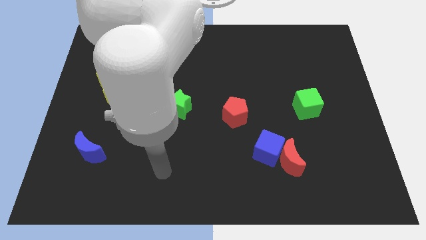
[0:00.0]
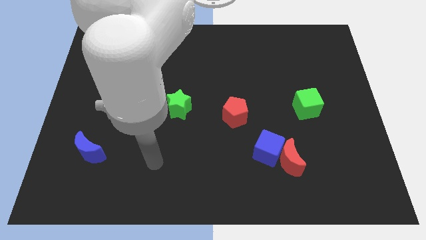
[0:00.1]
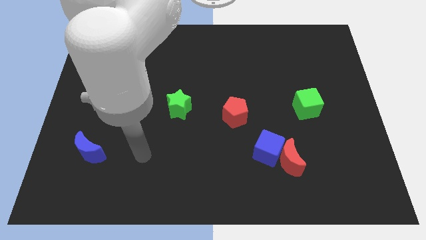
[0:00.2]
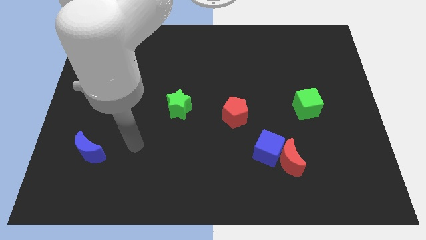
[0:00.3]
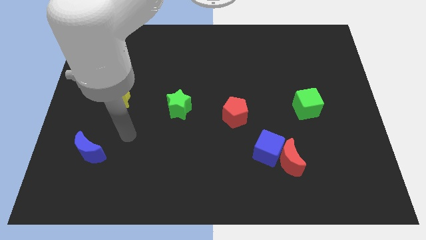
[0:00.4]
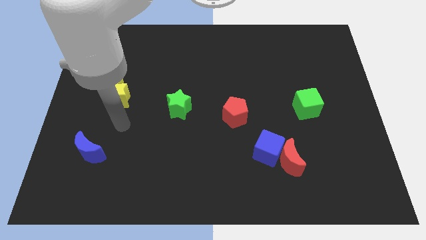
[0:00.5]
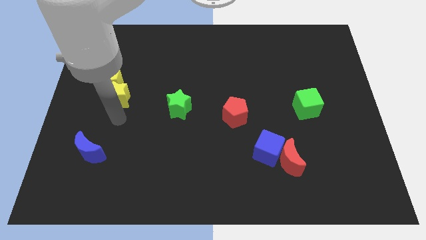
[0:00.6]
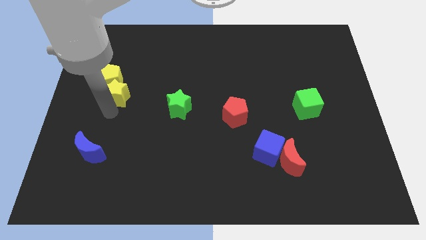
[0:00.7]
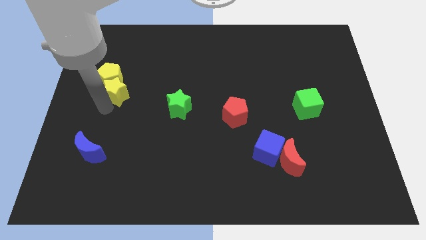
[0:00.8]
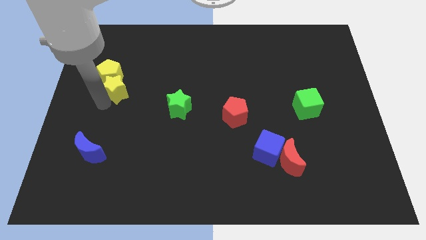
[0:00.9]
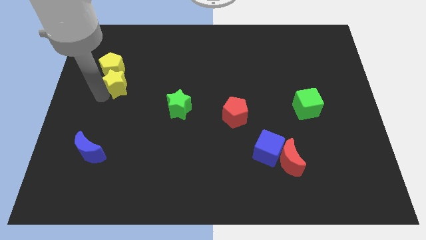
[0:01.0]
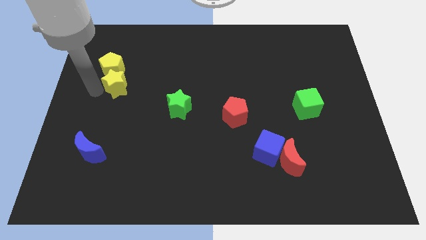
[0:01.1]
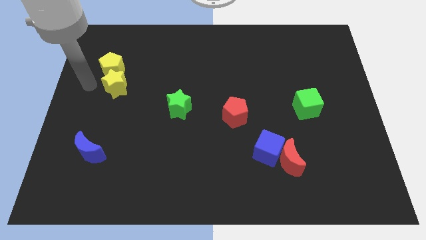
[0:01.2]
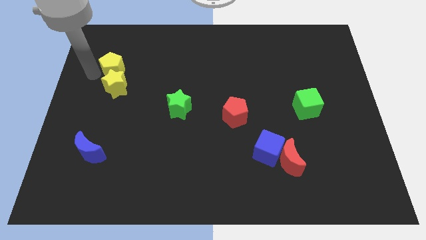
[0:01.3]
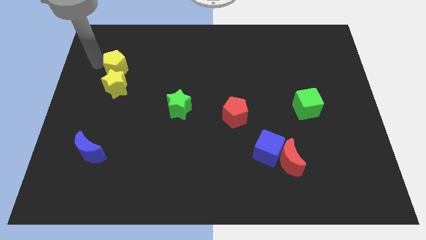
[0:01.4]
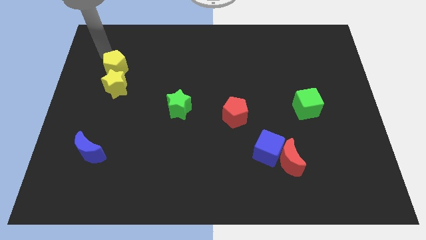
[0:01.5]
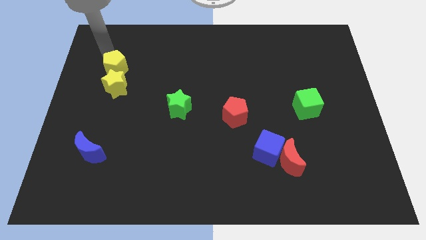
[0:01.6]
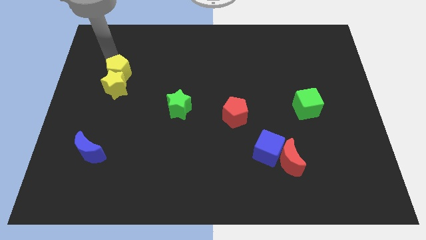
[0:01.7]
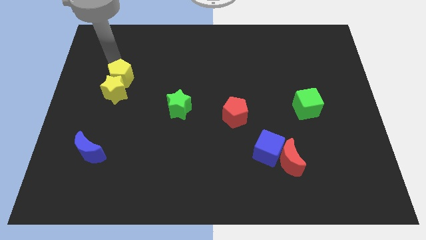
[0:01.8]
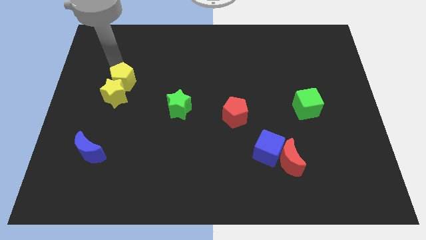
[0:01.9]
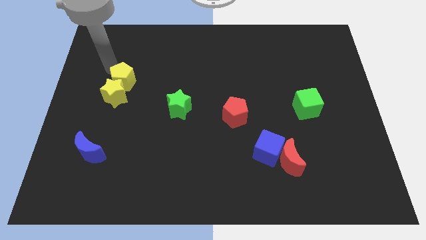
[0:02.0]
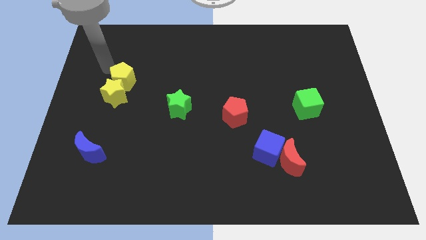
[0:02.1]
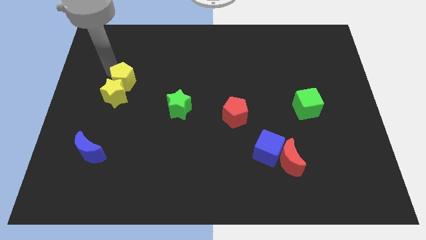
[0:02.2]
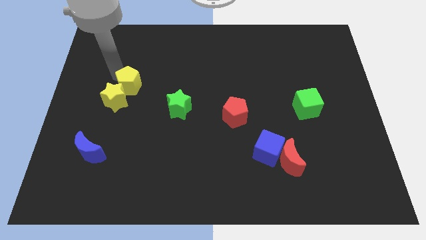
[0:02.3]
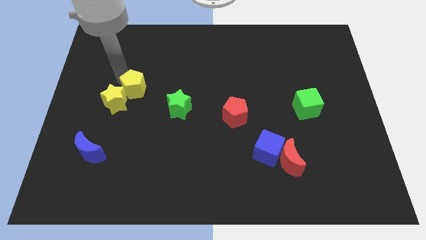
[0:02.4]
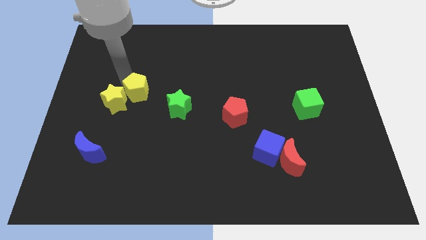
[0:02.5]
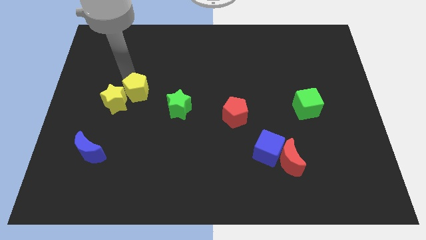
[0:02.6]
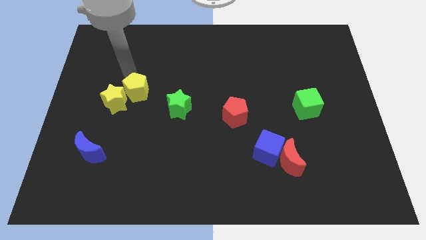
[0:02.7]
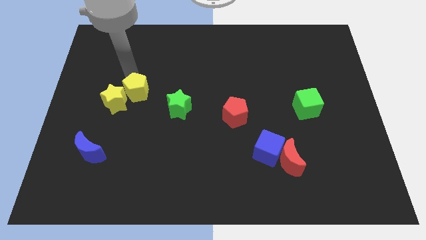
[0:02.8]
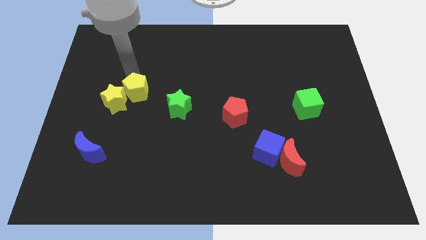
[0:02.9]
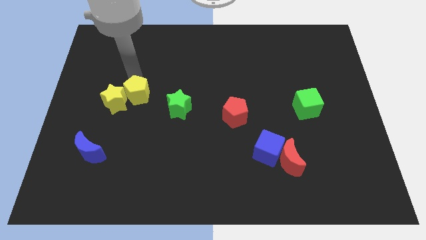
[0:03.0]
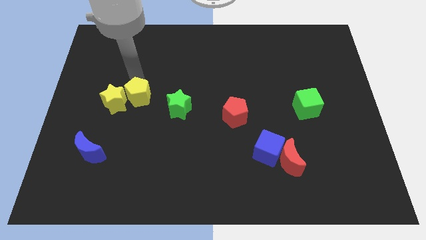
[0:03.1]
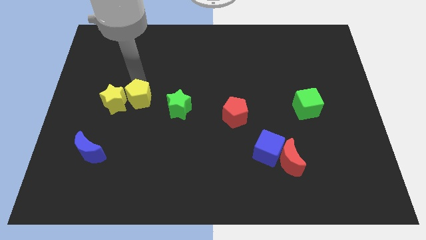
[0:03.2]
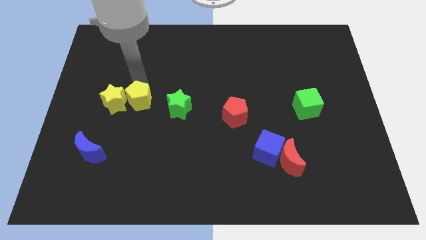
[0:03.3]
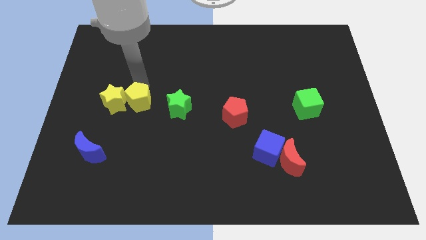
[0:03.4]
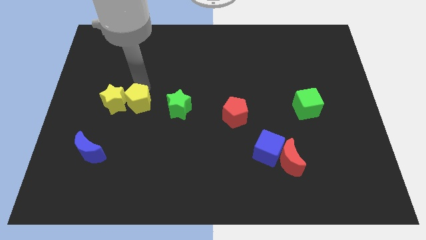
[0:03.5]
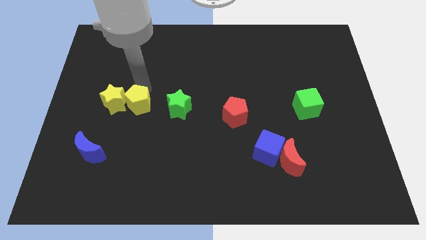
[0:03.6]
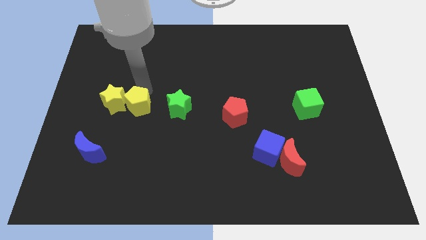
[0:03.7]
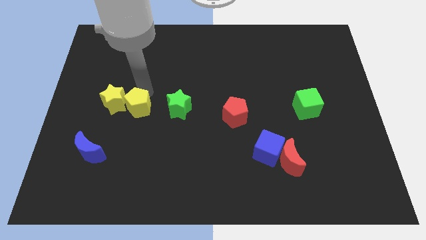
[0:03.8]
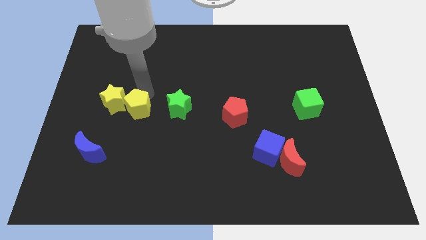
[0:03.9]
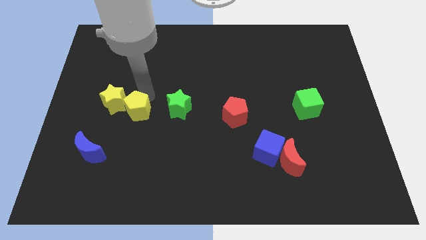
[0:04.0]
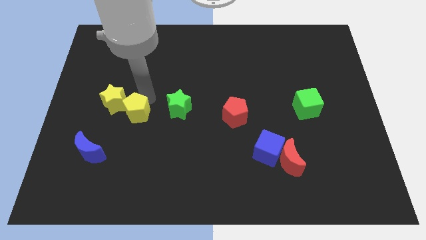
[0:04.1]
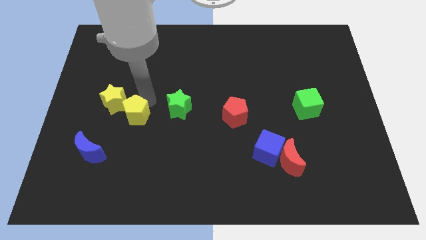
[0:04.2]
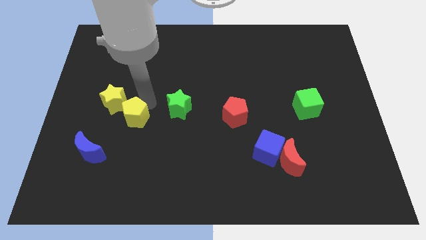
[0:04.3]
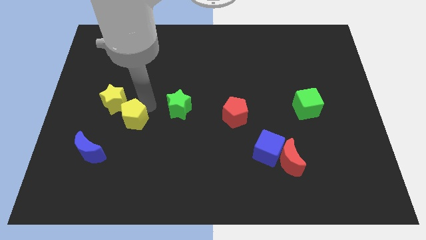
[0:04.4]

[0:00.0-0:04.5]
push the yellow pentagon to the bottom left of the green star

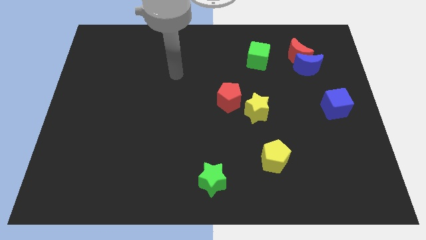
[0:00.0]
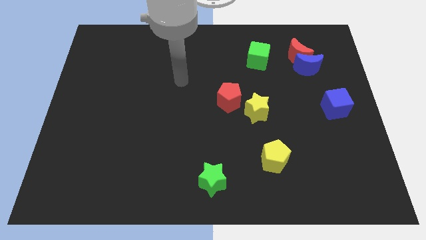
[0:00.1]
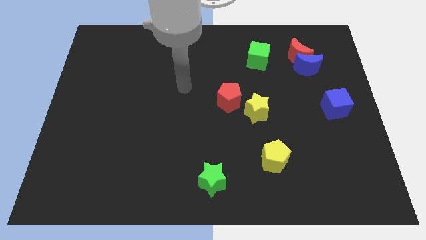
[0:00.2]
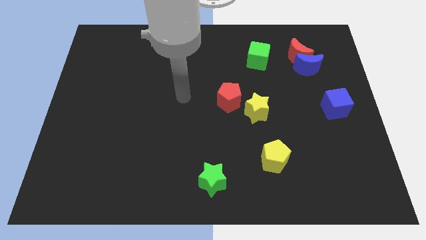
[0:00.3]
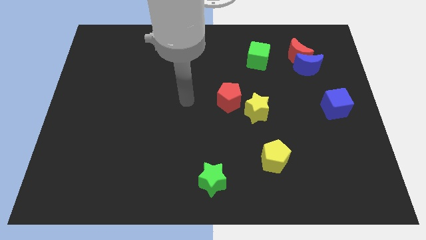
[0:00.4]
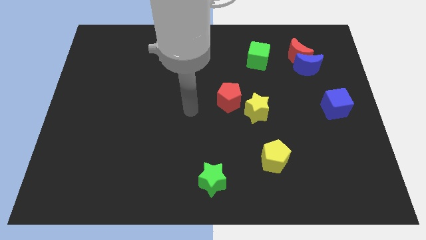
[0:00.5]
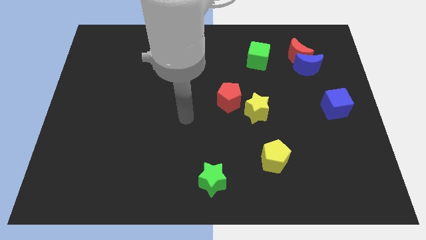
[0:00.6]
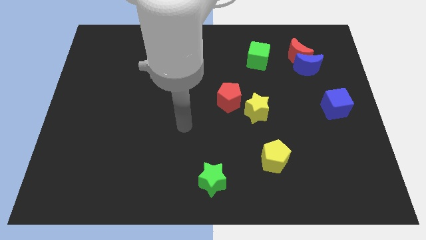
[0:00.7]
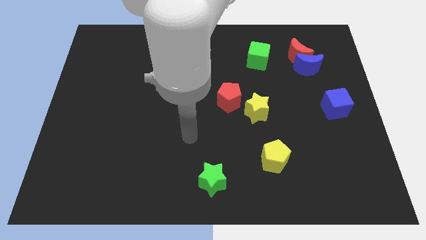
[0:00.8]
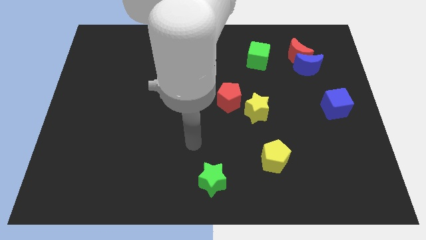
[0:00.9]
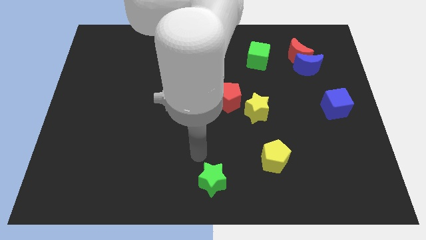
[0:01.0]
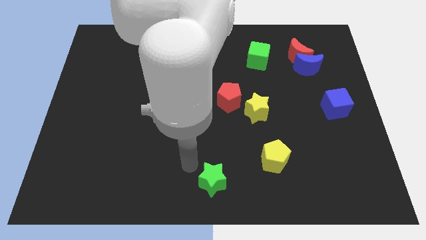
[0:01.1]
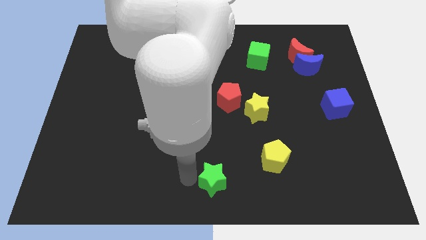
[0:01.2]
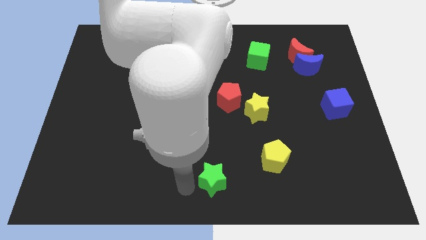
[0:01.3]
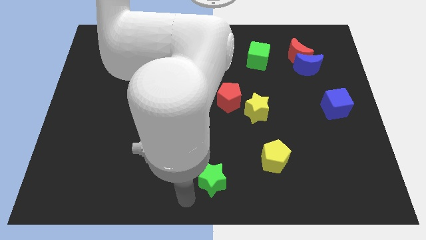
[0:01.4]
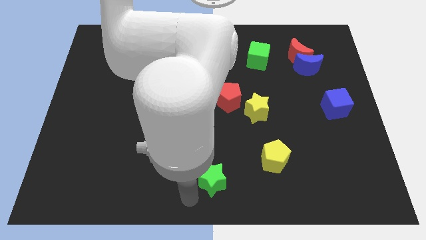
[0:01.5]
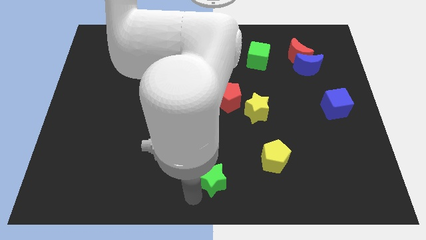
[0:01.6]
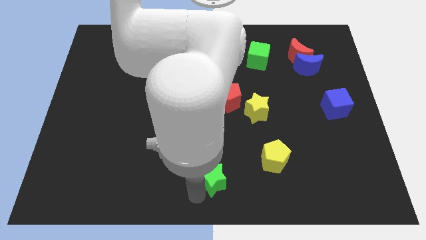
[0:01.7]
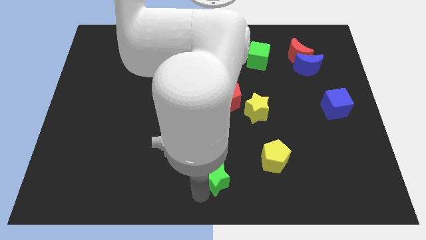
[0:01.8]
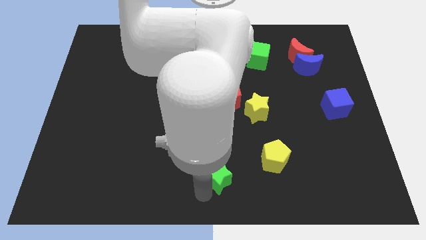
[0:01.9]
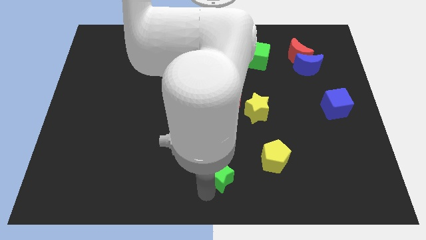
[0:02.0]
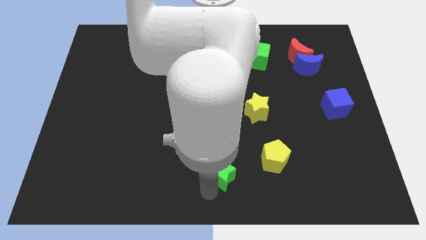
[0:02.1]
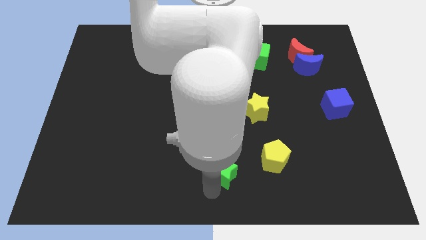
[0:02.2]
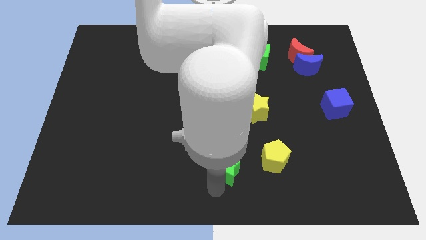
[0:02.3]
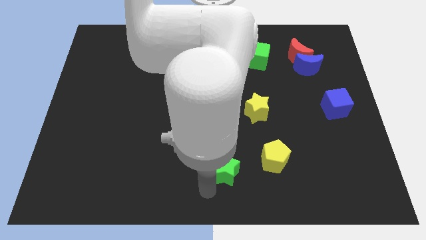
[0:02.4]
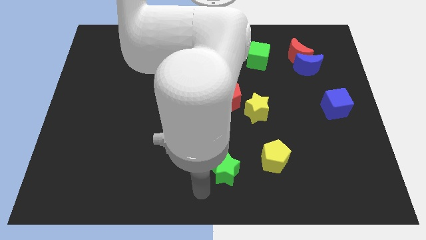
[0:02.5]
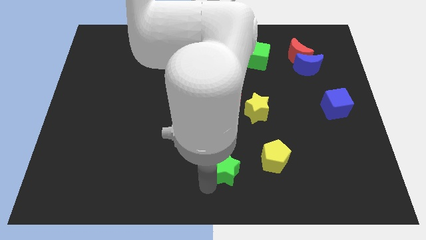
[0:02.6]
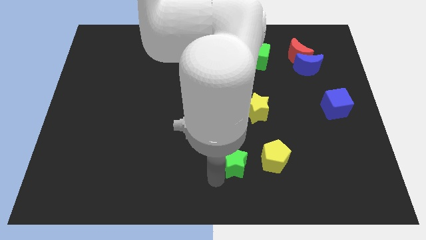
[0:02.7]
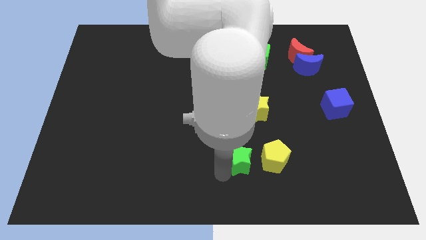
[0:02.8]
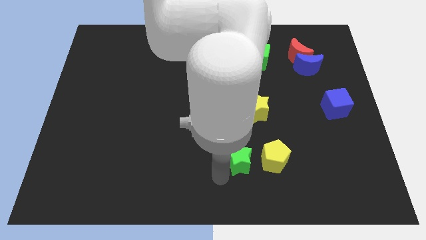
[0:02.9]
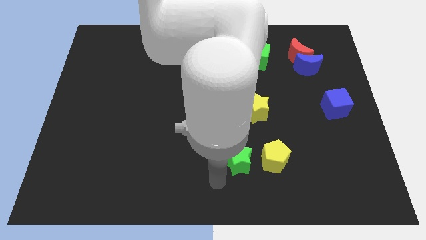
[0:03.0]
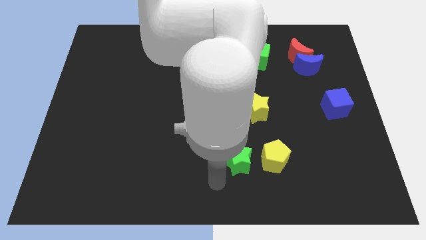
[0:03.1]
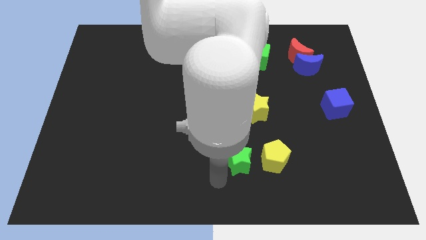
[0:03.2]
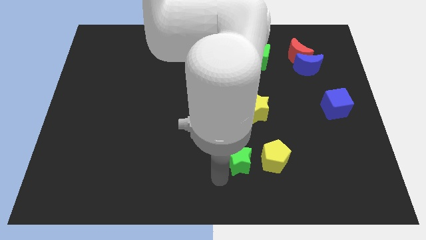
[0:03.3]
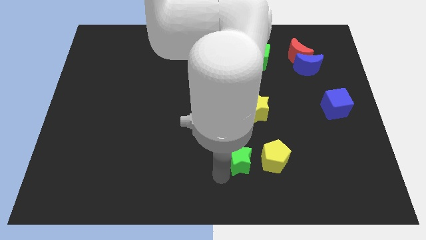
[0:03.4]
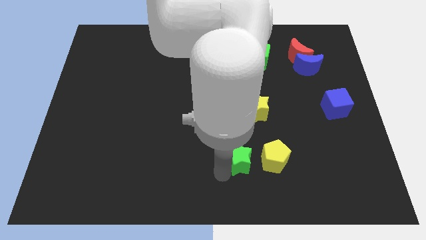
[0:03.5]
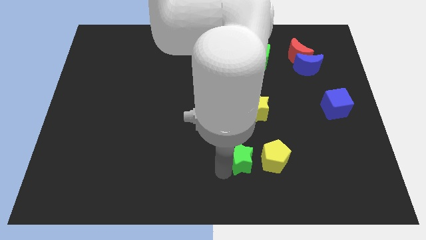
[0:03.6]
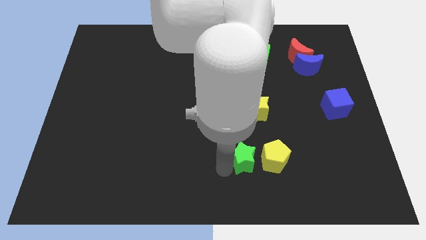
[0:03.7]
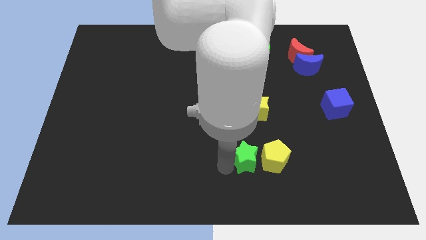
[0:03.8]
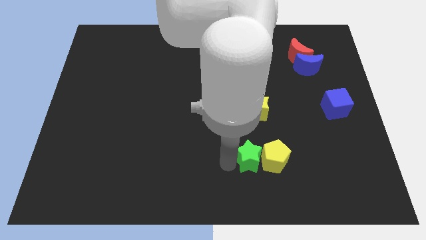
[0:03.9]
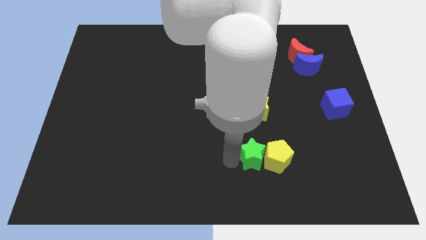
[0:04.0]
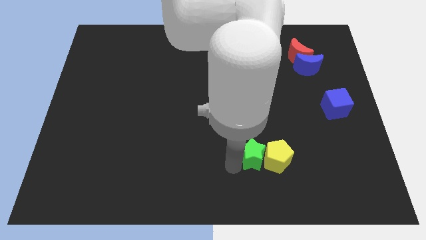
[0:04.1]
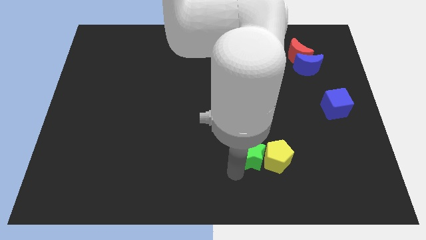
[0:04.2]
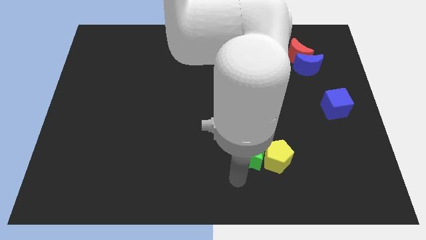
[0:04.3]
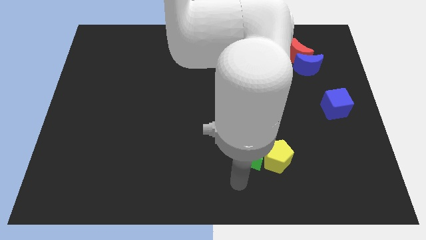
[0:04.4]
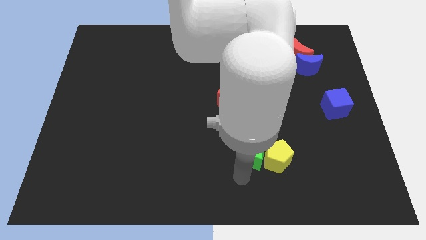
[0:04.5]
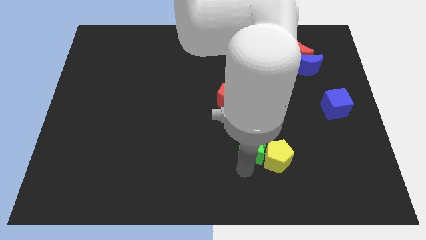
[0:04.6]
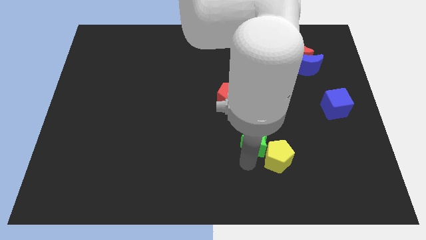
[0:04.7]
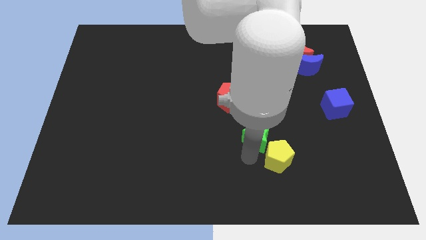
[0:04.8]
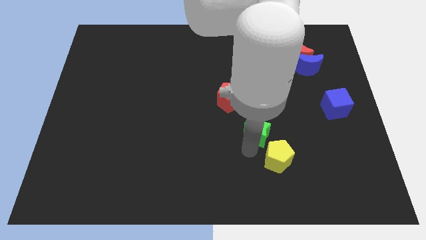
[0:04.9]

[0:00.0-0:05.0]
slide the green star to the bottom right of the yellow star
